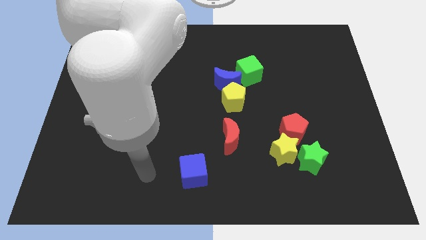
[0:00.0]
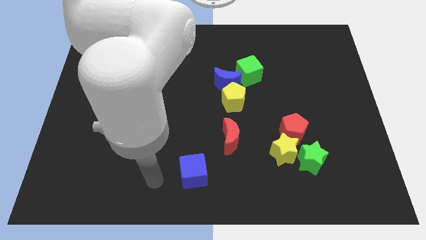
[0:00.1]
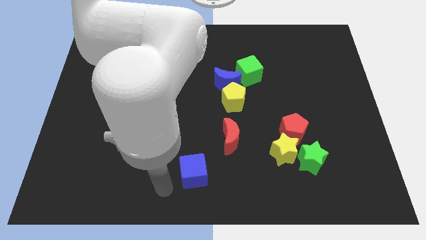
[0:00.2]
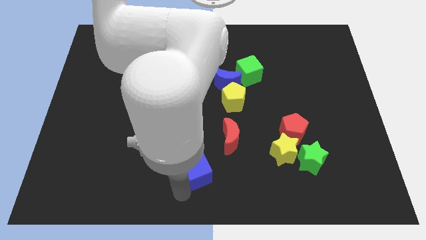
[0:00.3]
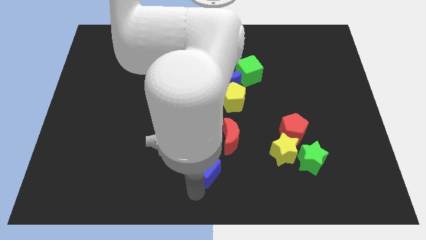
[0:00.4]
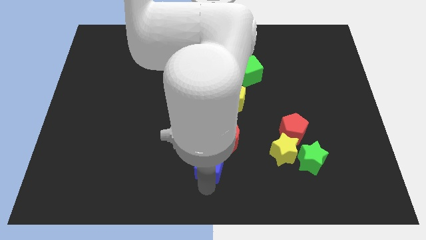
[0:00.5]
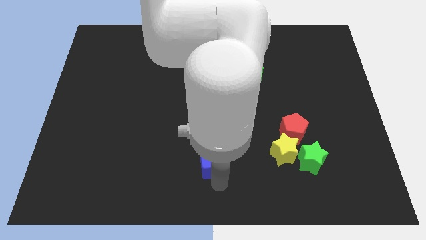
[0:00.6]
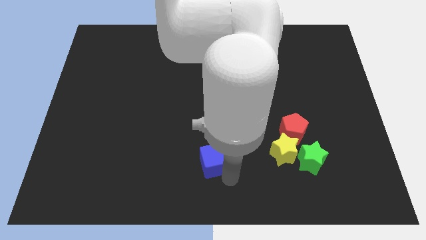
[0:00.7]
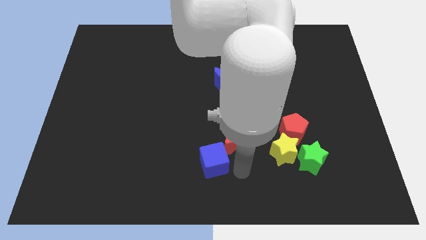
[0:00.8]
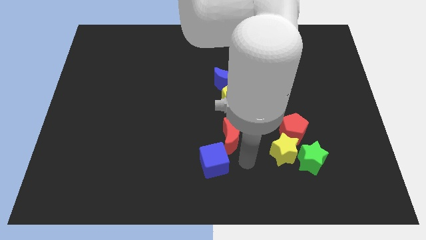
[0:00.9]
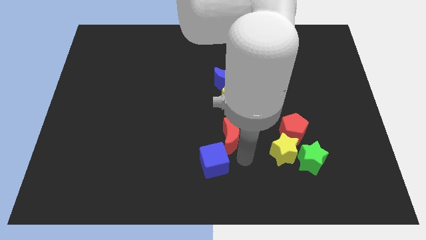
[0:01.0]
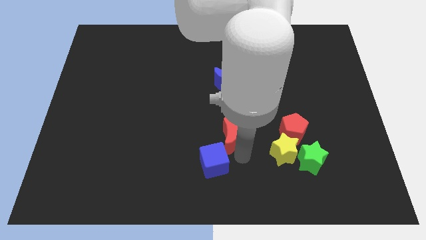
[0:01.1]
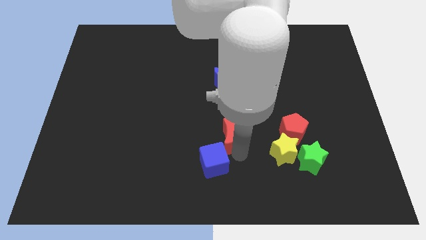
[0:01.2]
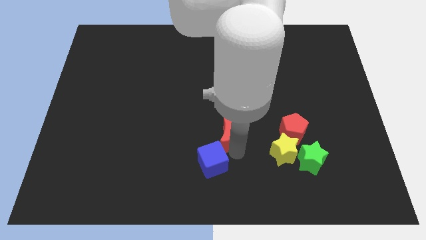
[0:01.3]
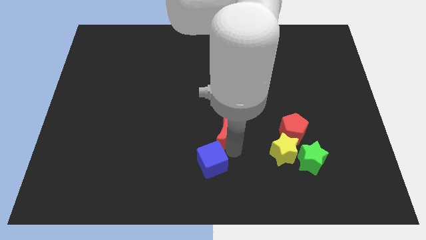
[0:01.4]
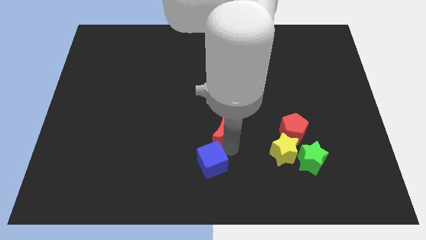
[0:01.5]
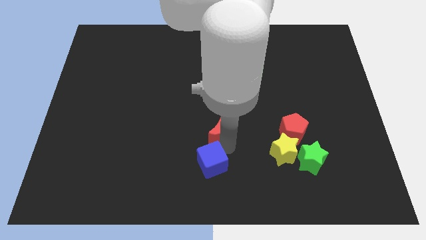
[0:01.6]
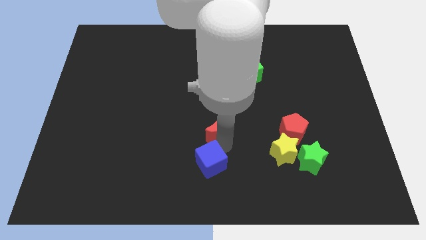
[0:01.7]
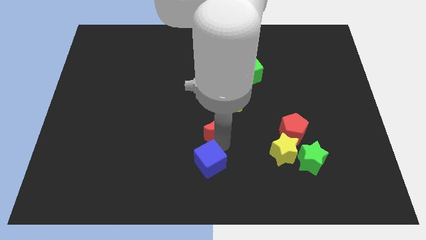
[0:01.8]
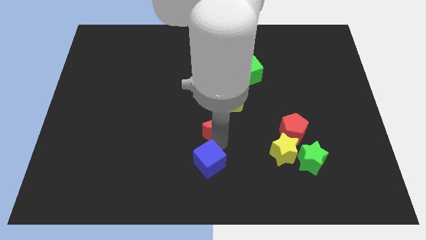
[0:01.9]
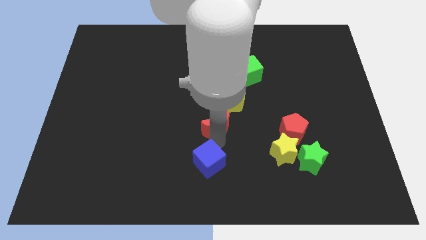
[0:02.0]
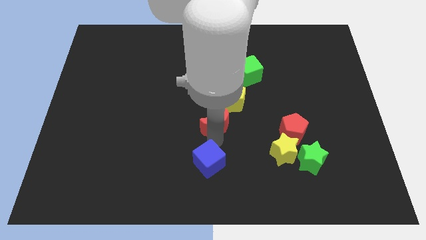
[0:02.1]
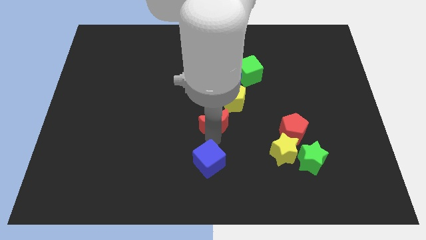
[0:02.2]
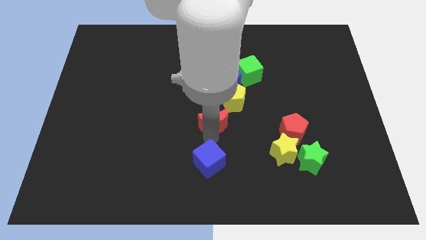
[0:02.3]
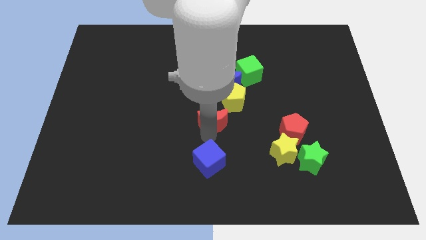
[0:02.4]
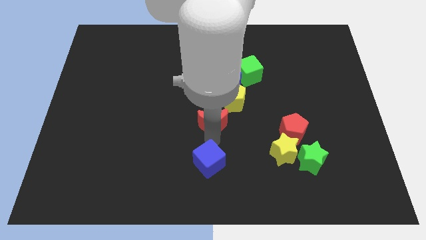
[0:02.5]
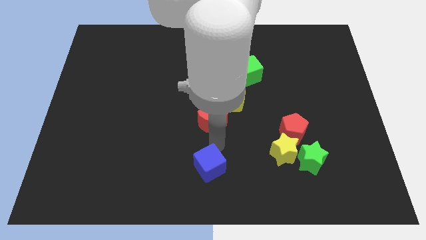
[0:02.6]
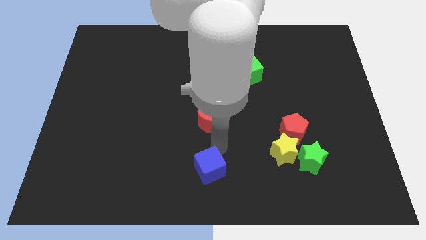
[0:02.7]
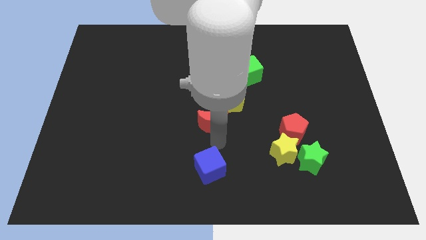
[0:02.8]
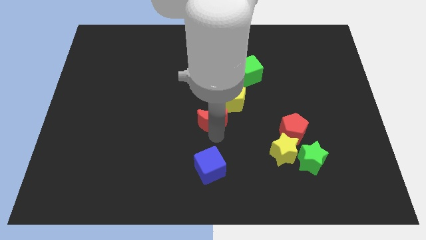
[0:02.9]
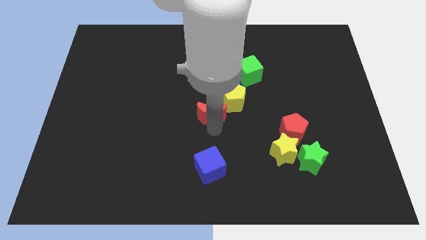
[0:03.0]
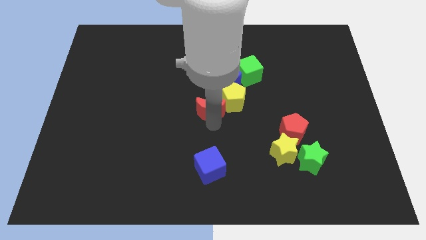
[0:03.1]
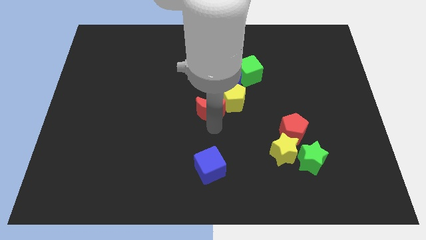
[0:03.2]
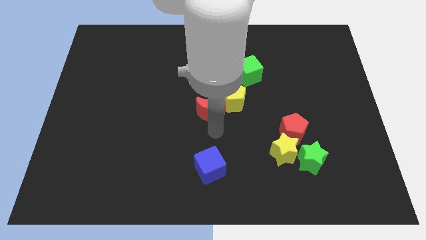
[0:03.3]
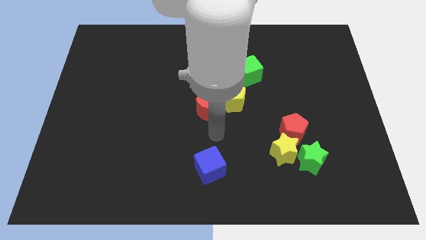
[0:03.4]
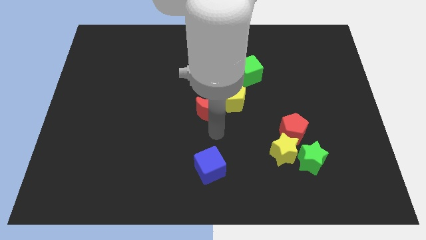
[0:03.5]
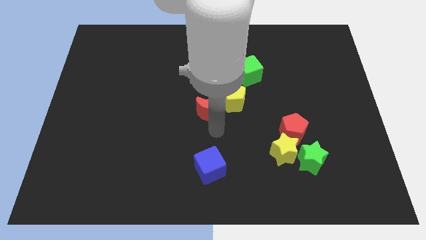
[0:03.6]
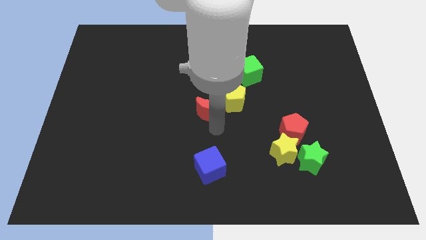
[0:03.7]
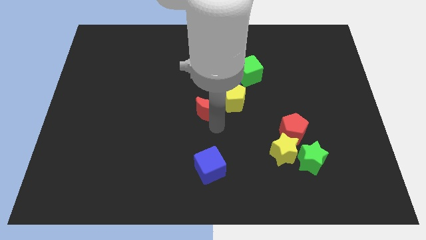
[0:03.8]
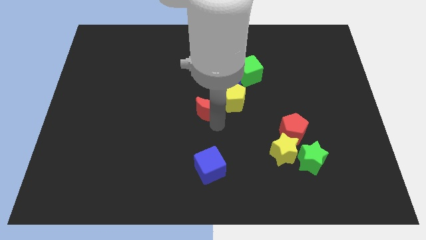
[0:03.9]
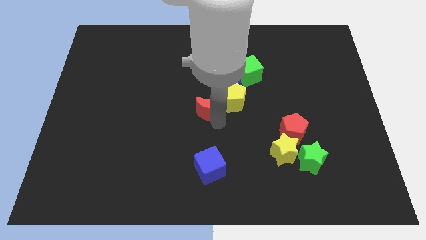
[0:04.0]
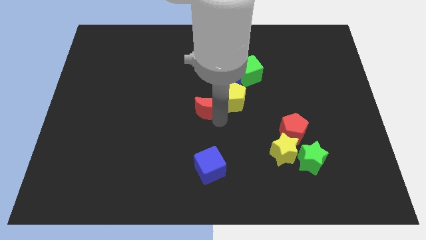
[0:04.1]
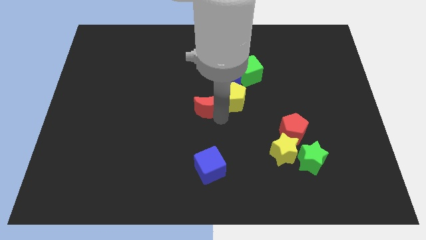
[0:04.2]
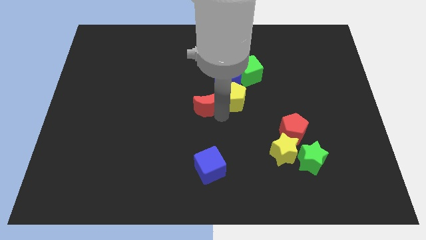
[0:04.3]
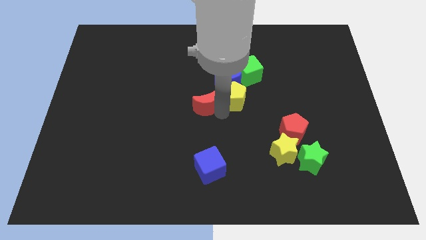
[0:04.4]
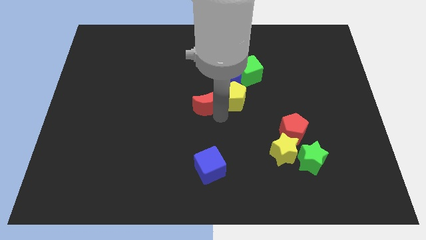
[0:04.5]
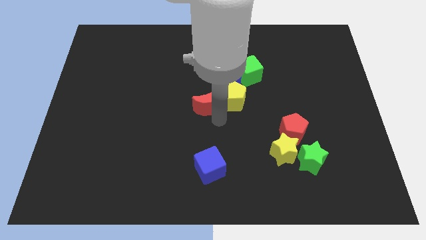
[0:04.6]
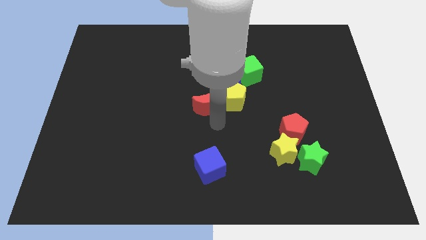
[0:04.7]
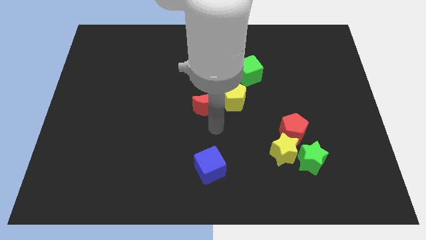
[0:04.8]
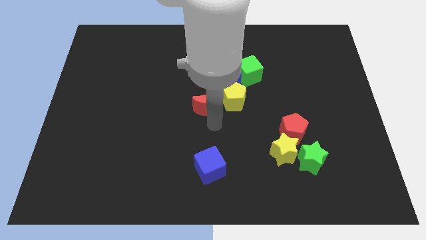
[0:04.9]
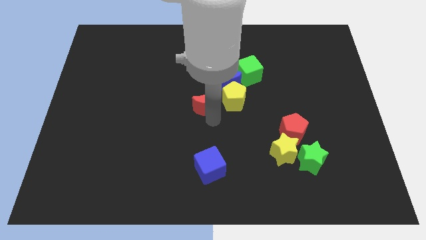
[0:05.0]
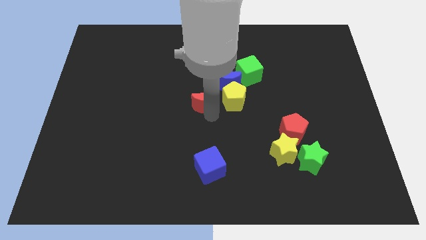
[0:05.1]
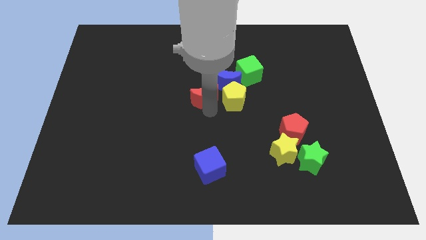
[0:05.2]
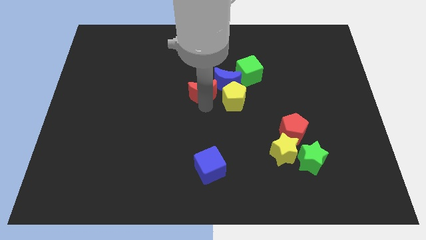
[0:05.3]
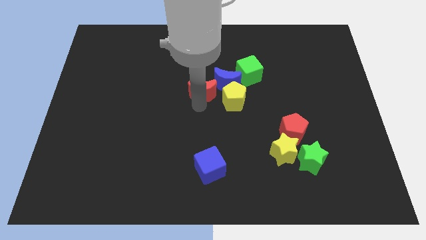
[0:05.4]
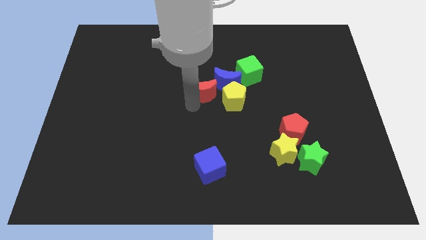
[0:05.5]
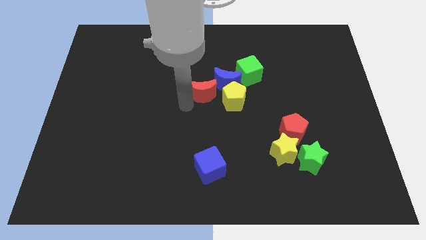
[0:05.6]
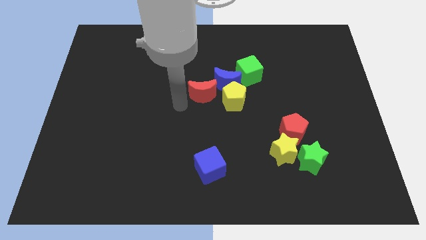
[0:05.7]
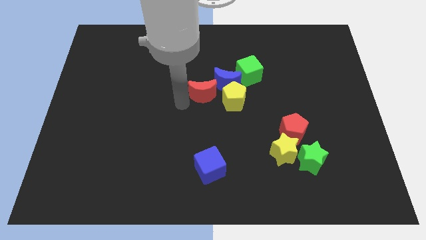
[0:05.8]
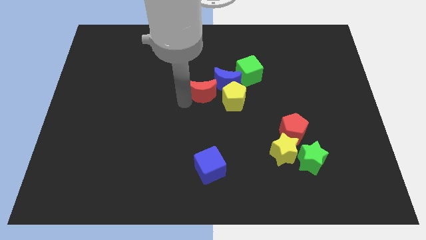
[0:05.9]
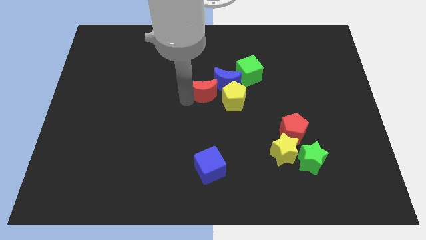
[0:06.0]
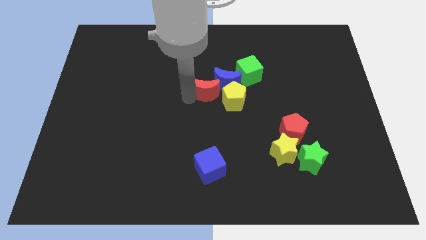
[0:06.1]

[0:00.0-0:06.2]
push the red moon close to the blue moon
